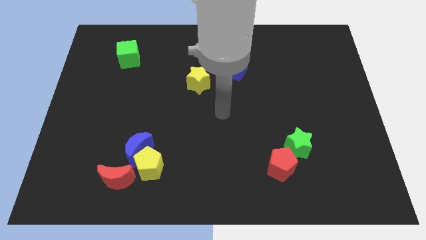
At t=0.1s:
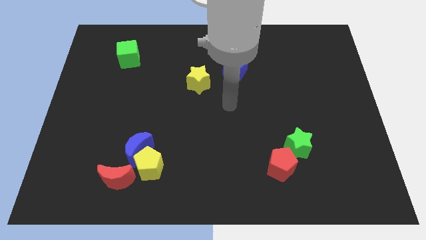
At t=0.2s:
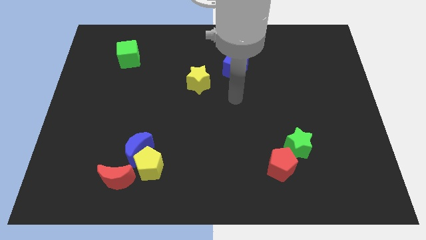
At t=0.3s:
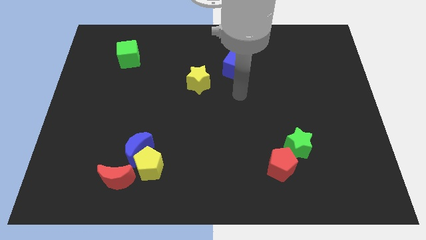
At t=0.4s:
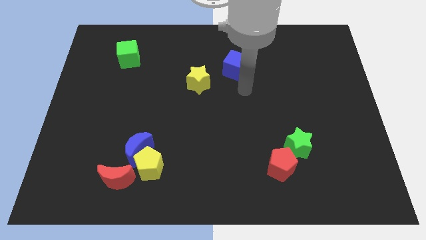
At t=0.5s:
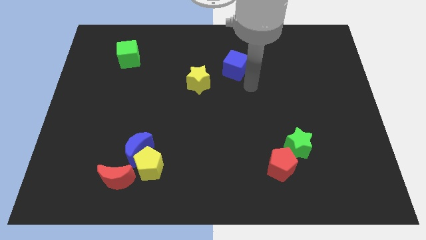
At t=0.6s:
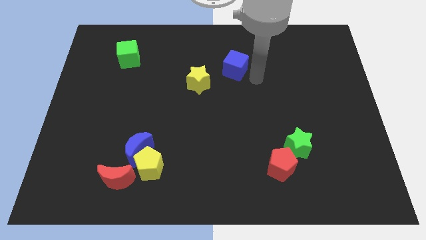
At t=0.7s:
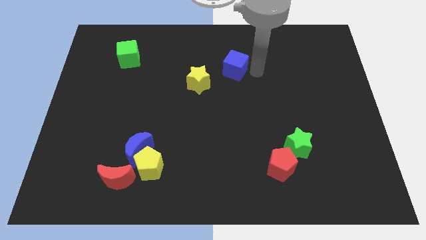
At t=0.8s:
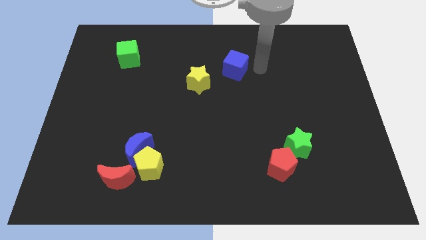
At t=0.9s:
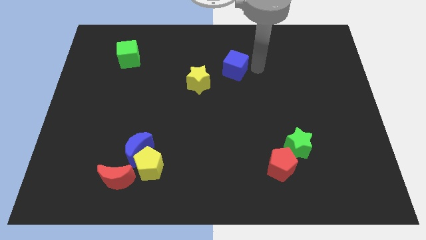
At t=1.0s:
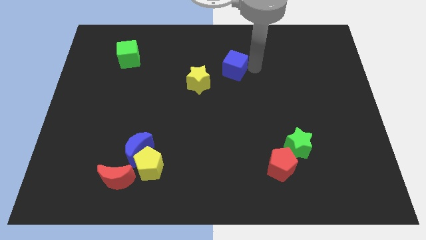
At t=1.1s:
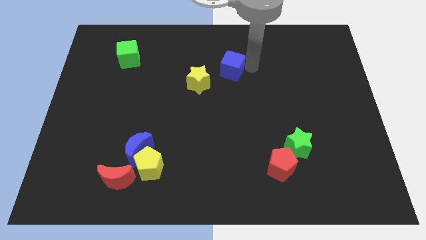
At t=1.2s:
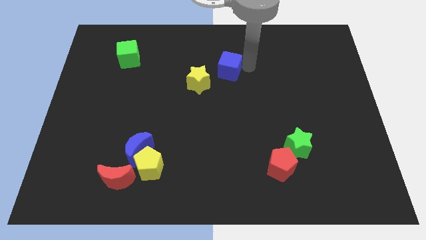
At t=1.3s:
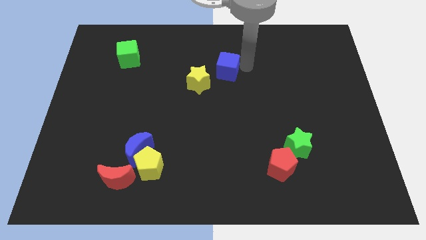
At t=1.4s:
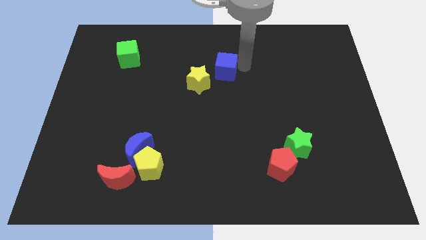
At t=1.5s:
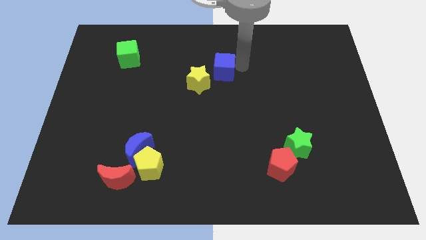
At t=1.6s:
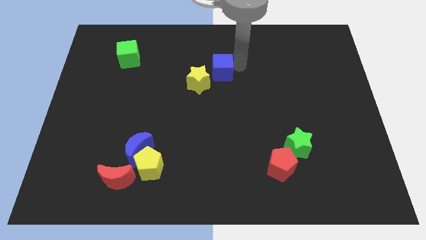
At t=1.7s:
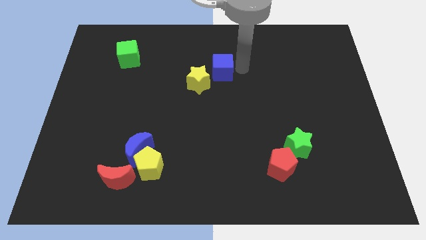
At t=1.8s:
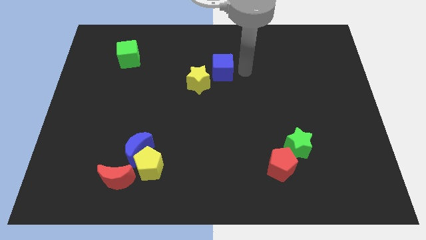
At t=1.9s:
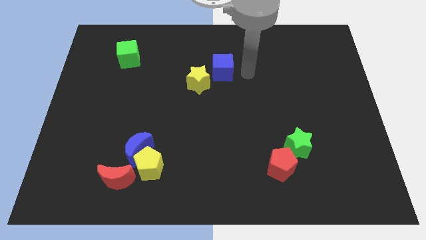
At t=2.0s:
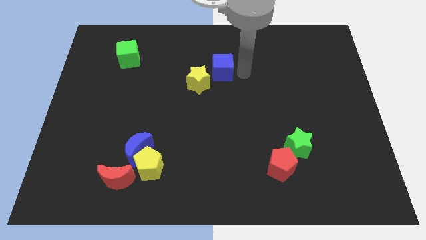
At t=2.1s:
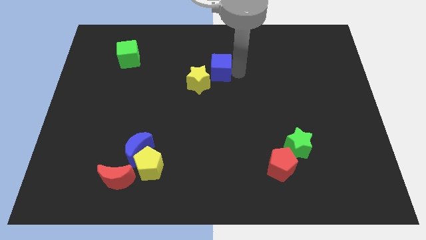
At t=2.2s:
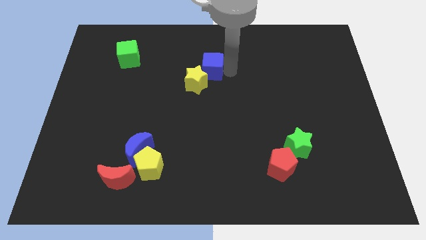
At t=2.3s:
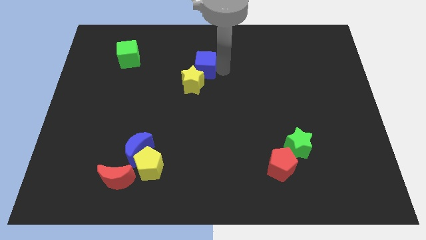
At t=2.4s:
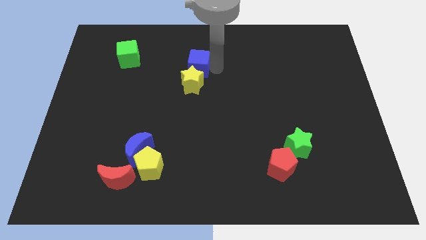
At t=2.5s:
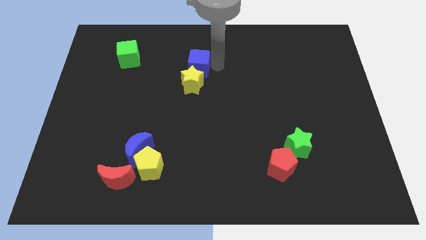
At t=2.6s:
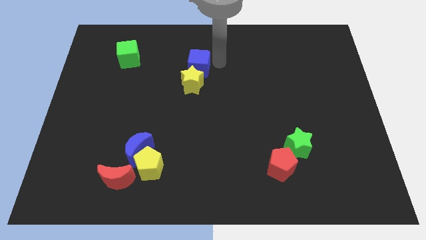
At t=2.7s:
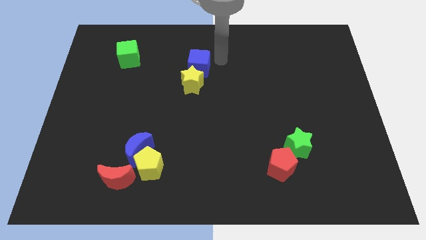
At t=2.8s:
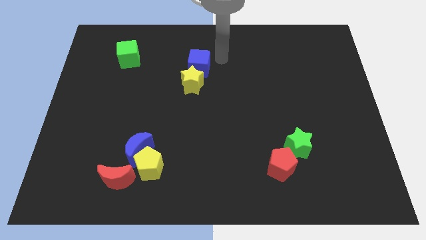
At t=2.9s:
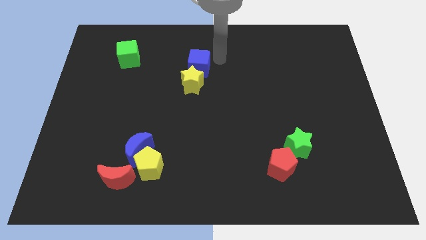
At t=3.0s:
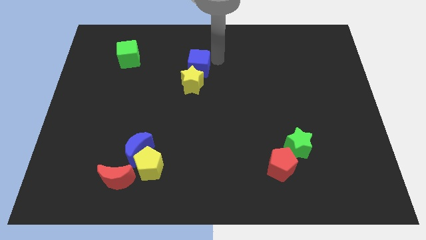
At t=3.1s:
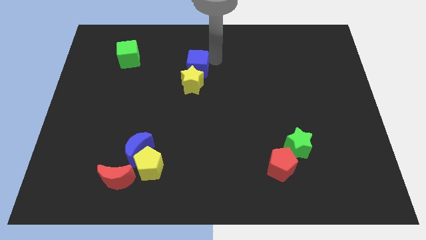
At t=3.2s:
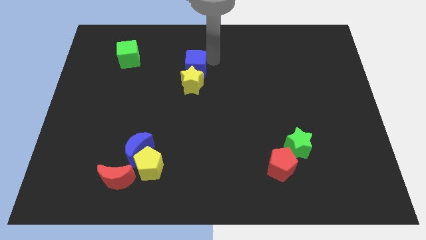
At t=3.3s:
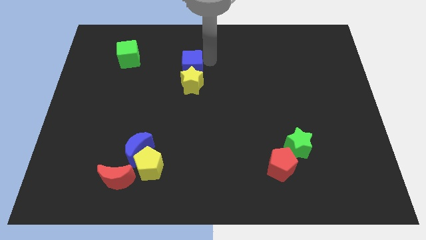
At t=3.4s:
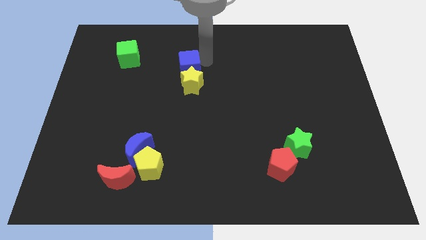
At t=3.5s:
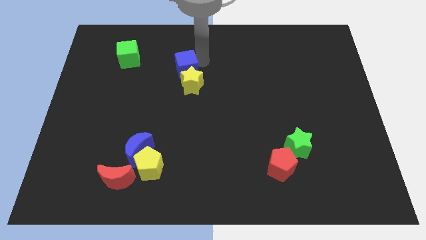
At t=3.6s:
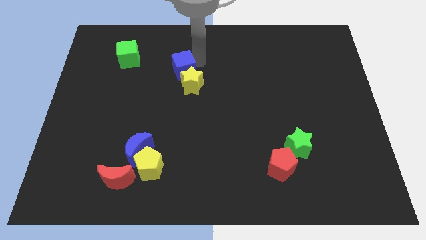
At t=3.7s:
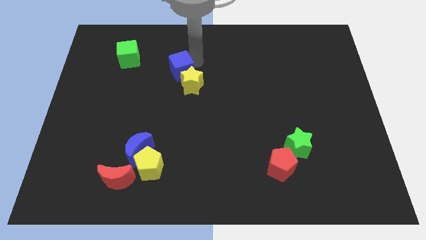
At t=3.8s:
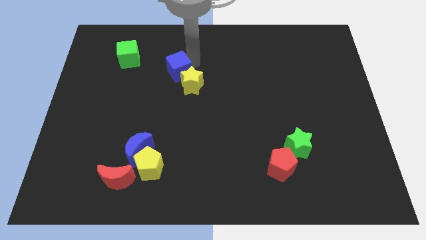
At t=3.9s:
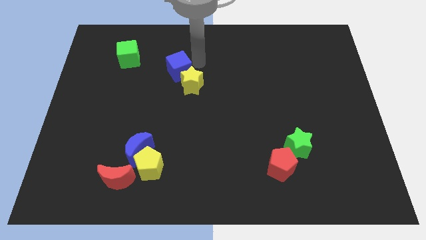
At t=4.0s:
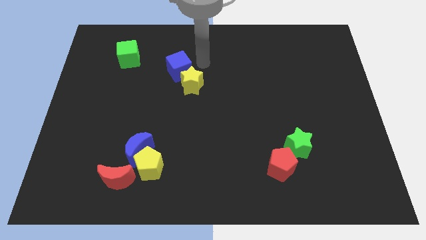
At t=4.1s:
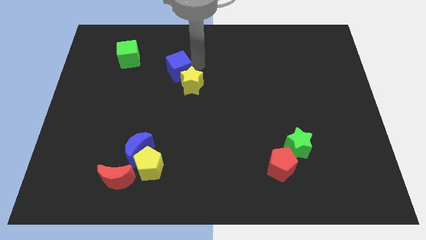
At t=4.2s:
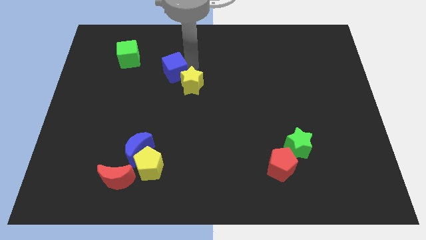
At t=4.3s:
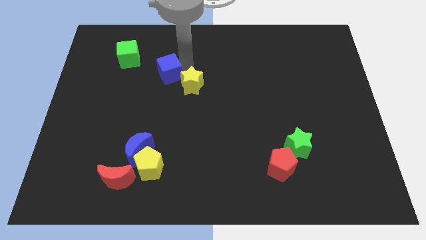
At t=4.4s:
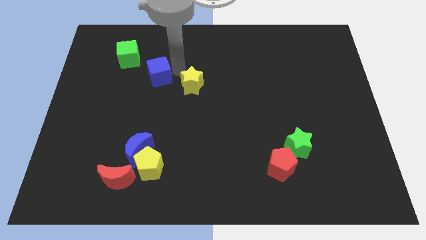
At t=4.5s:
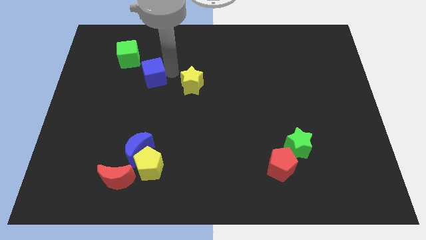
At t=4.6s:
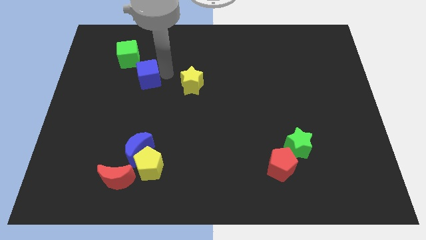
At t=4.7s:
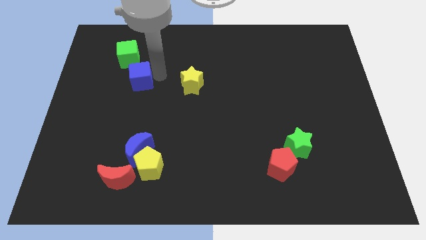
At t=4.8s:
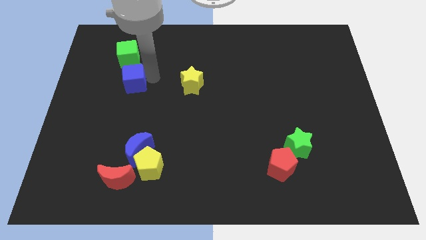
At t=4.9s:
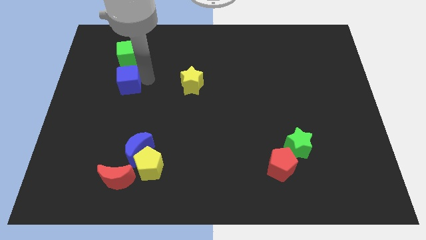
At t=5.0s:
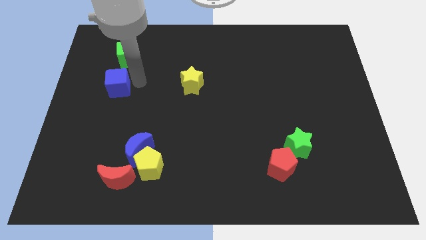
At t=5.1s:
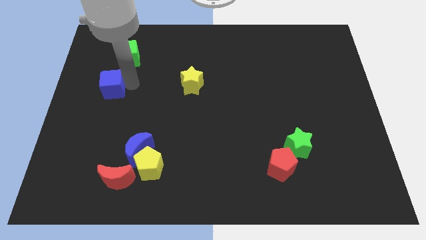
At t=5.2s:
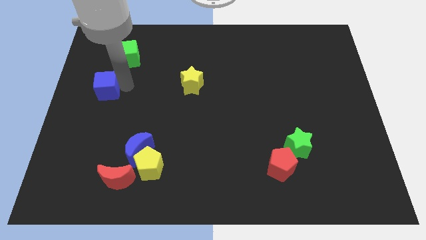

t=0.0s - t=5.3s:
push the blue cube to the center left

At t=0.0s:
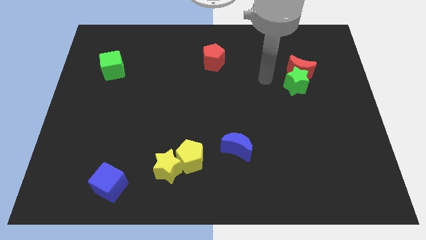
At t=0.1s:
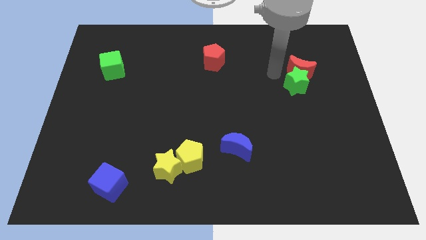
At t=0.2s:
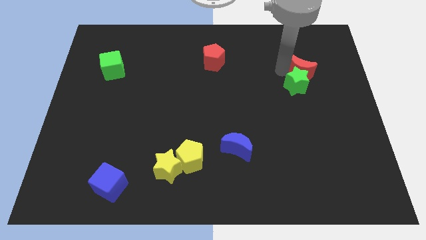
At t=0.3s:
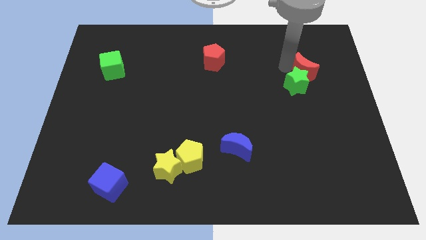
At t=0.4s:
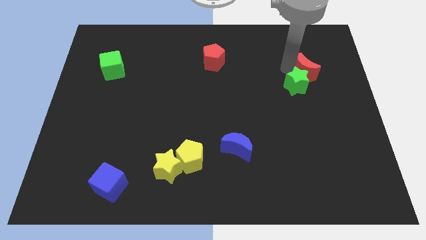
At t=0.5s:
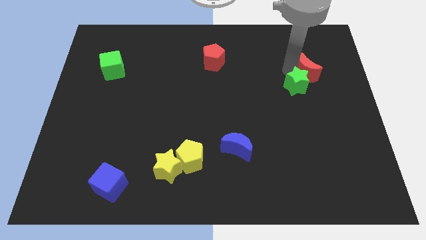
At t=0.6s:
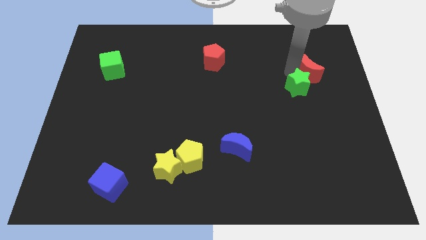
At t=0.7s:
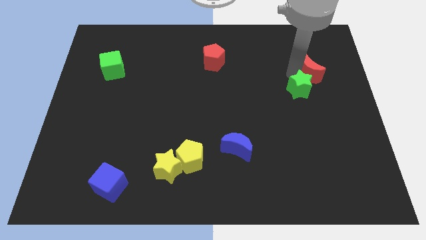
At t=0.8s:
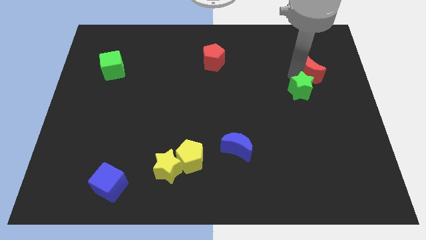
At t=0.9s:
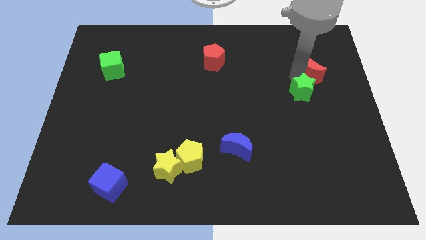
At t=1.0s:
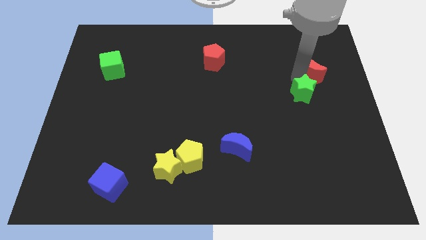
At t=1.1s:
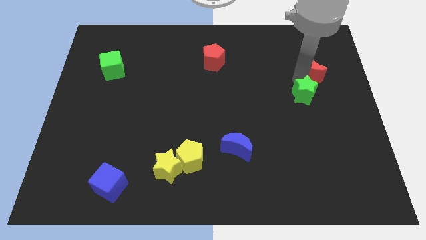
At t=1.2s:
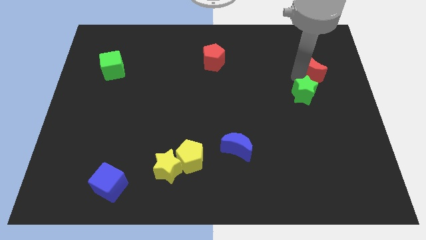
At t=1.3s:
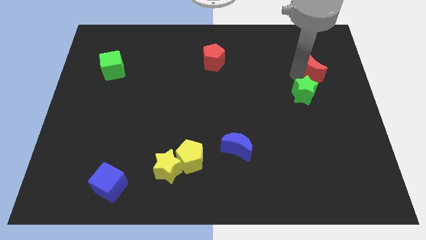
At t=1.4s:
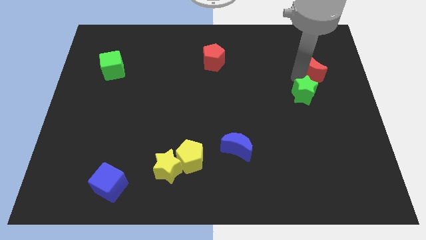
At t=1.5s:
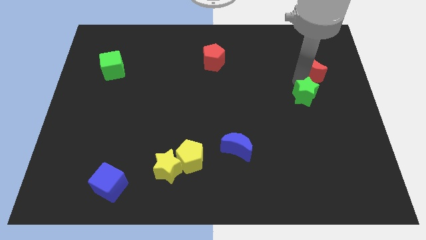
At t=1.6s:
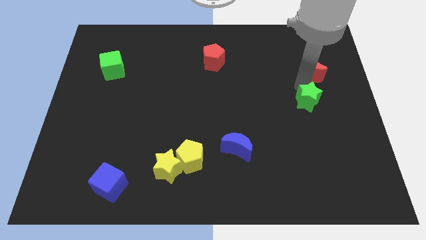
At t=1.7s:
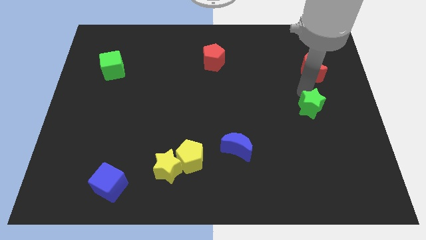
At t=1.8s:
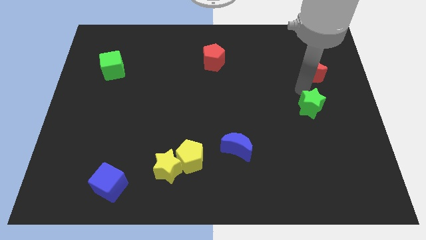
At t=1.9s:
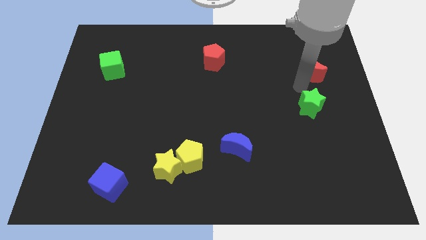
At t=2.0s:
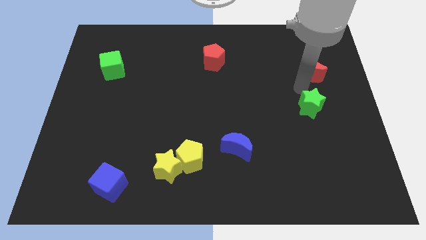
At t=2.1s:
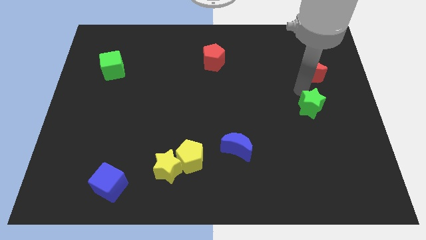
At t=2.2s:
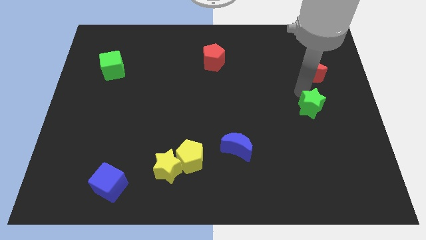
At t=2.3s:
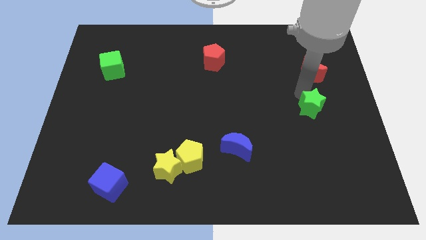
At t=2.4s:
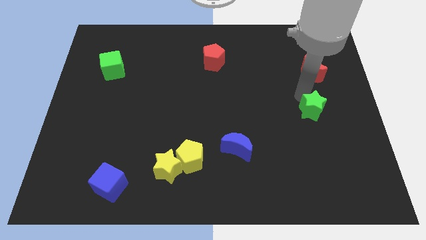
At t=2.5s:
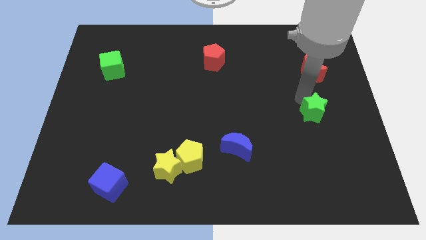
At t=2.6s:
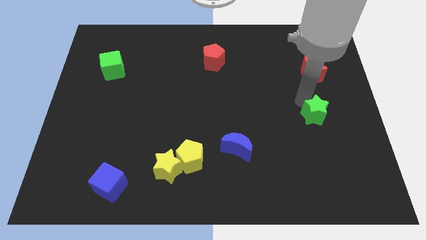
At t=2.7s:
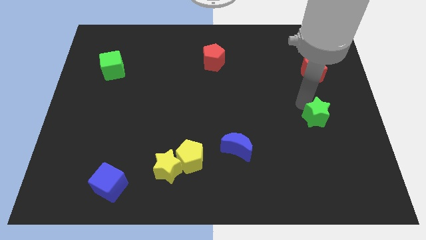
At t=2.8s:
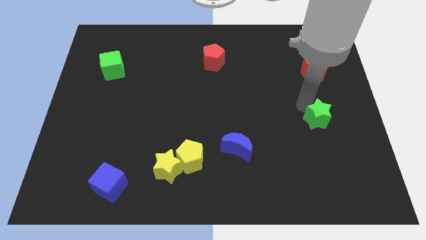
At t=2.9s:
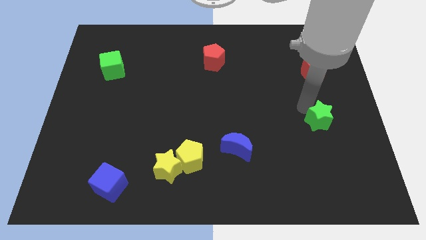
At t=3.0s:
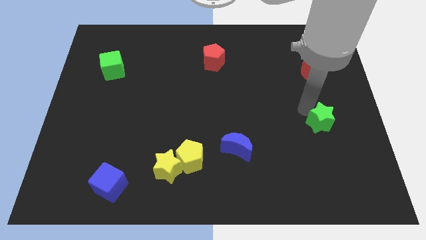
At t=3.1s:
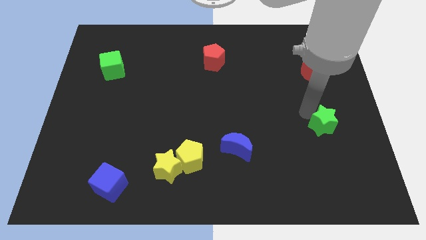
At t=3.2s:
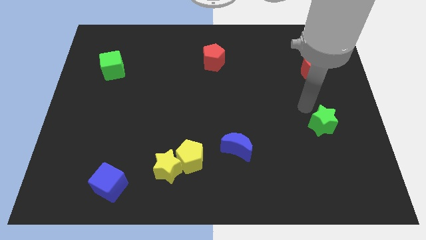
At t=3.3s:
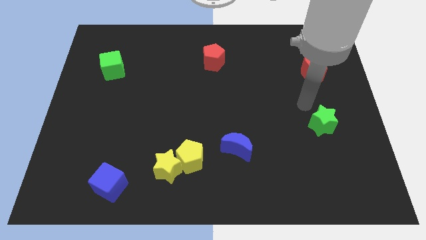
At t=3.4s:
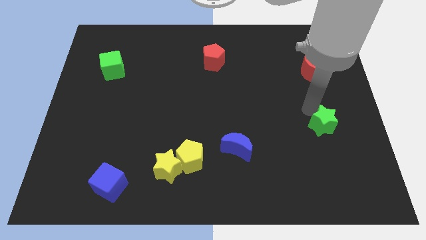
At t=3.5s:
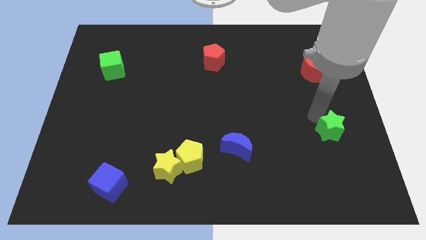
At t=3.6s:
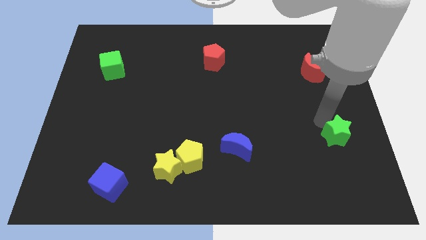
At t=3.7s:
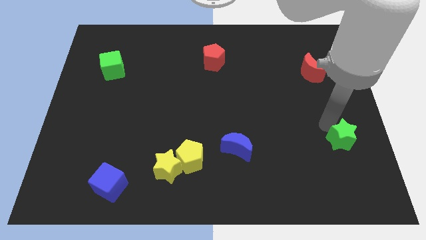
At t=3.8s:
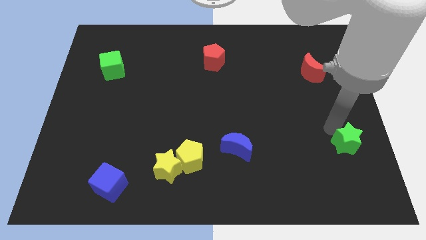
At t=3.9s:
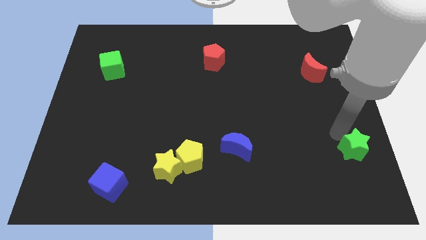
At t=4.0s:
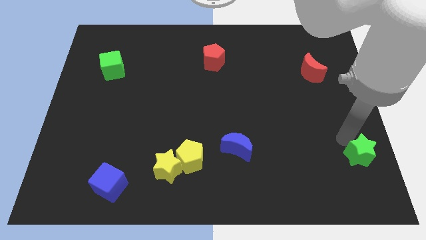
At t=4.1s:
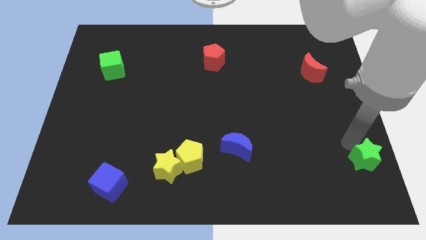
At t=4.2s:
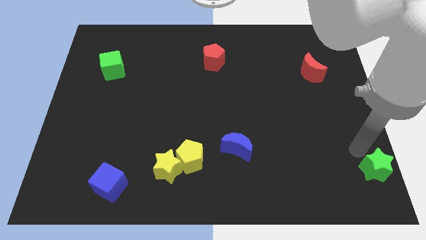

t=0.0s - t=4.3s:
slide the green star to the bottom right of the board
